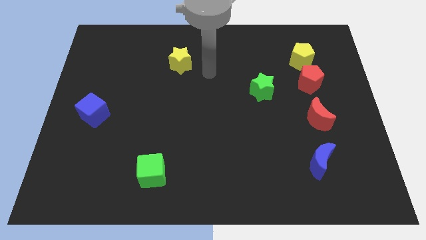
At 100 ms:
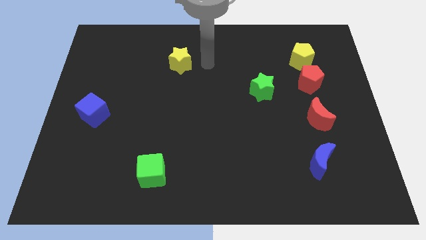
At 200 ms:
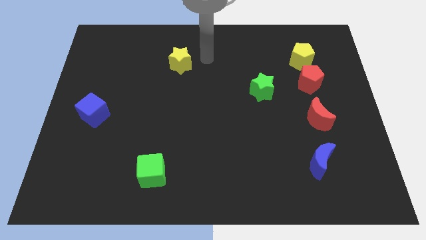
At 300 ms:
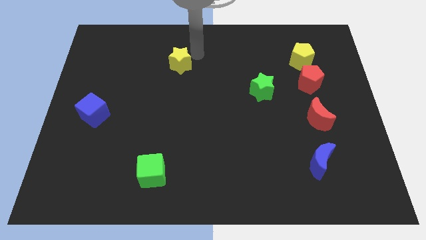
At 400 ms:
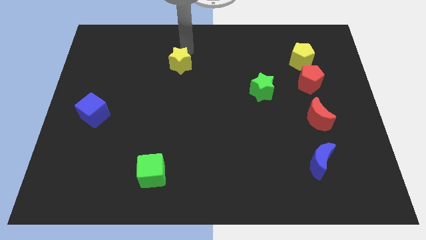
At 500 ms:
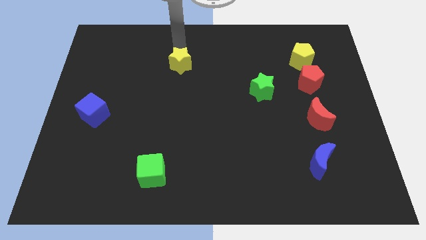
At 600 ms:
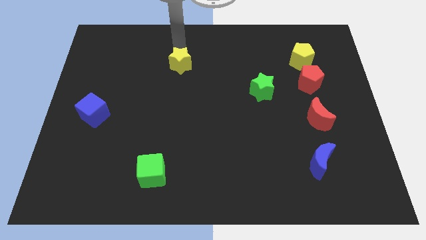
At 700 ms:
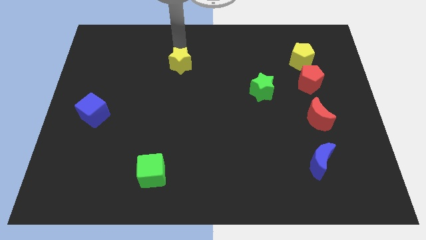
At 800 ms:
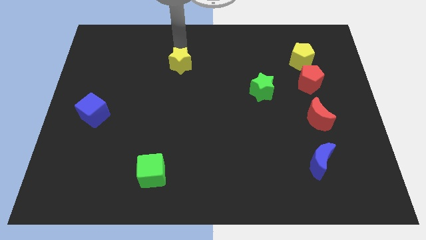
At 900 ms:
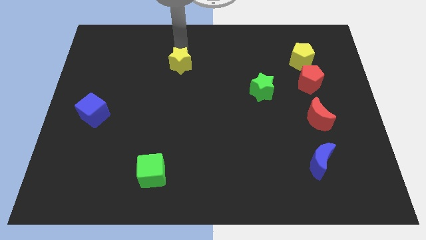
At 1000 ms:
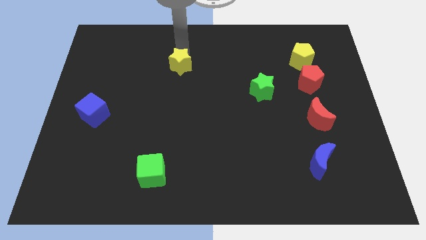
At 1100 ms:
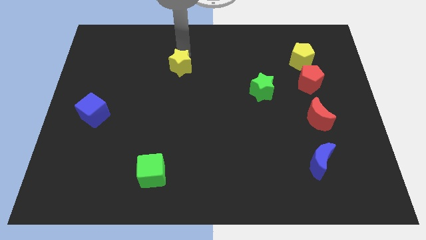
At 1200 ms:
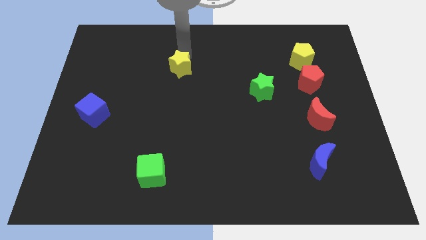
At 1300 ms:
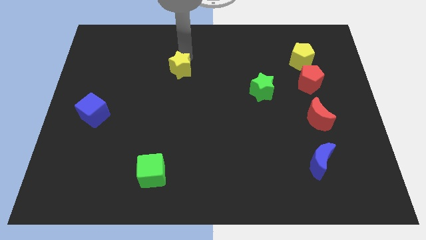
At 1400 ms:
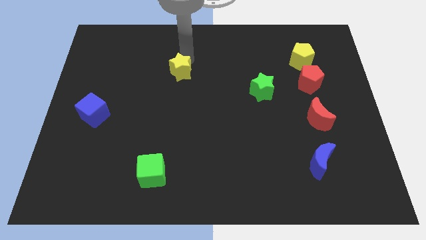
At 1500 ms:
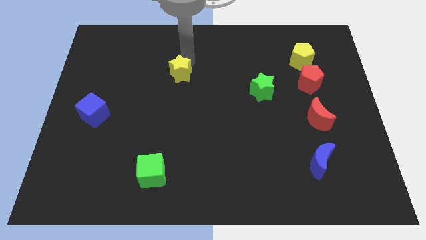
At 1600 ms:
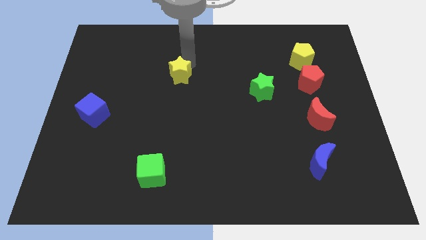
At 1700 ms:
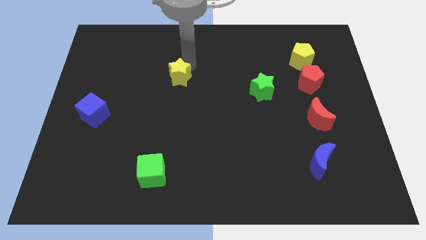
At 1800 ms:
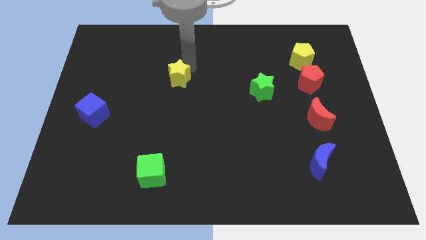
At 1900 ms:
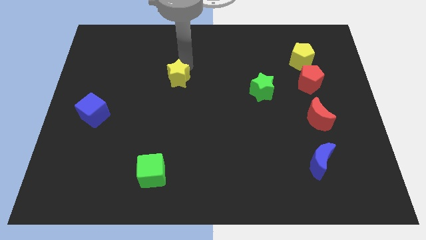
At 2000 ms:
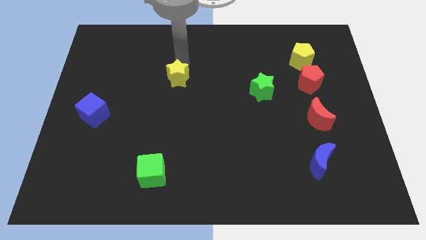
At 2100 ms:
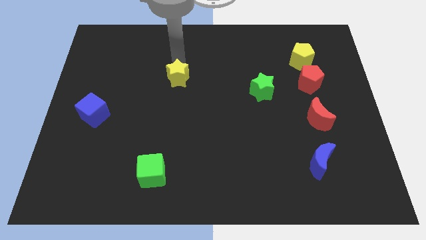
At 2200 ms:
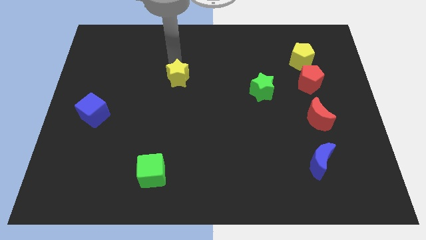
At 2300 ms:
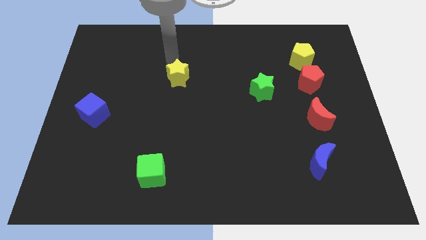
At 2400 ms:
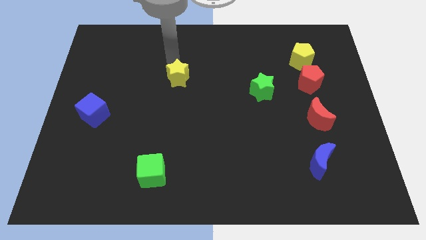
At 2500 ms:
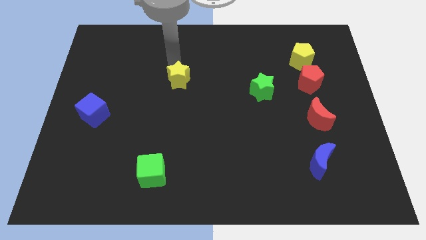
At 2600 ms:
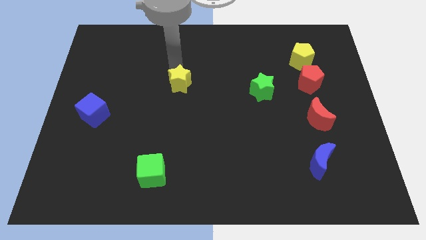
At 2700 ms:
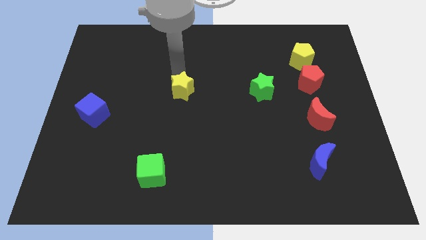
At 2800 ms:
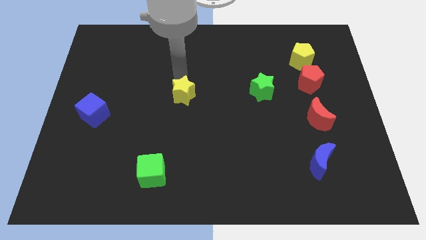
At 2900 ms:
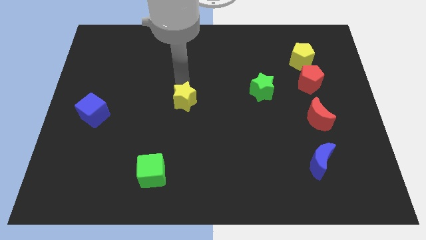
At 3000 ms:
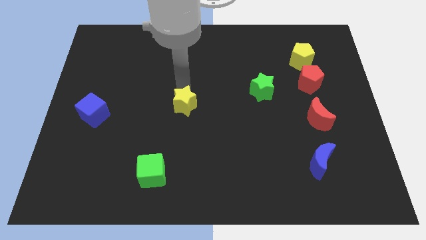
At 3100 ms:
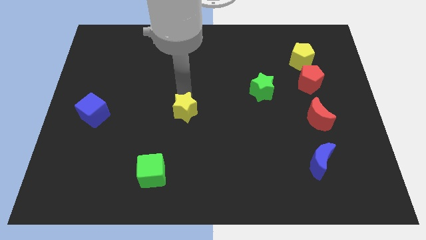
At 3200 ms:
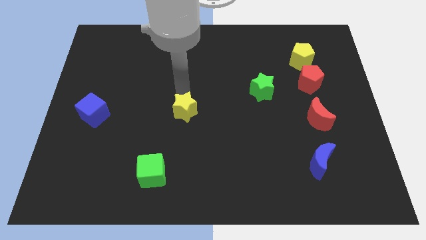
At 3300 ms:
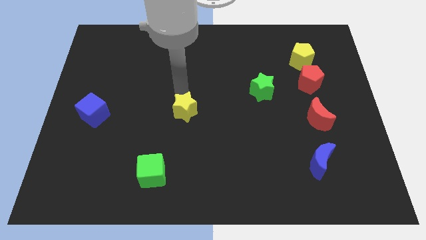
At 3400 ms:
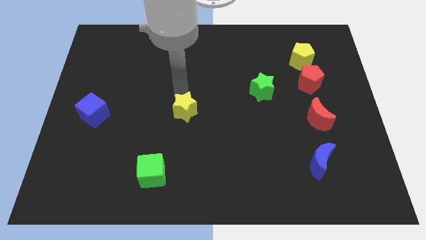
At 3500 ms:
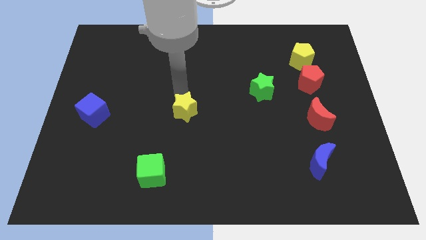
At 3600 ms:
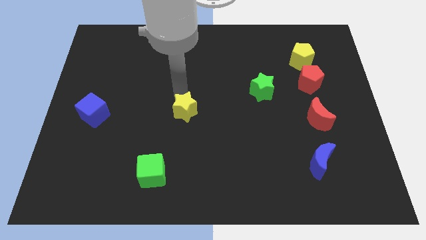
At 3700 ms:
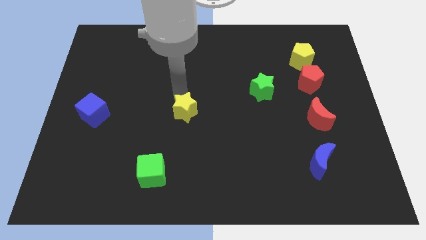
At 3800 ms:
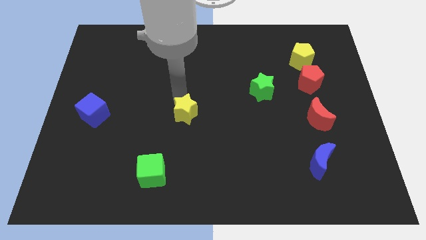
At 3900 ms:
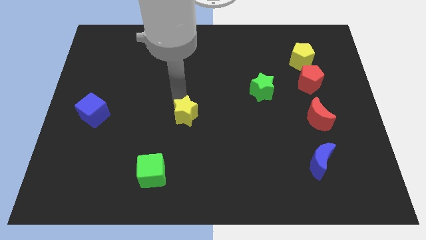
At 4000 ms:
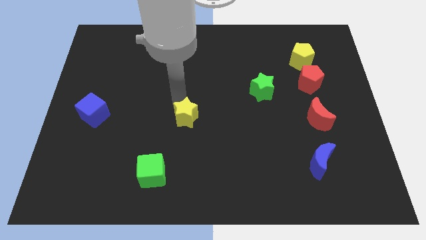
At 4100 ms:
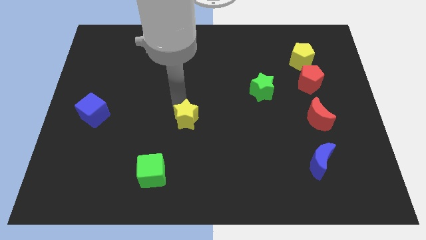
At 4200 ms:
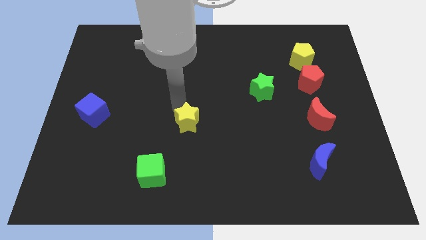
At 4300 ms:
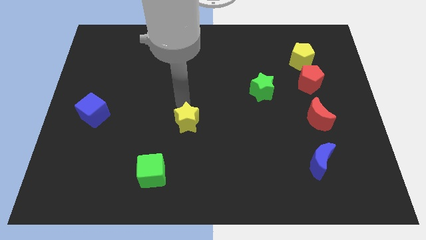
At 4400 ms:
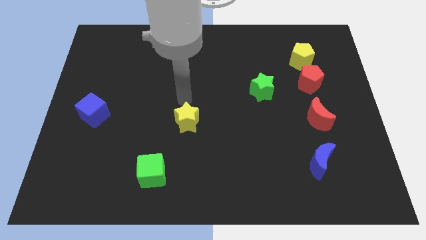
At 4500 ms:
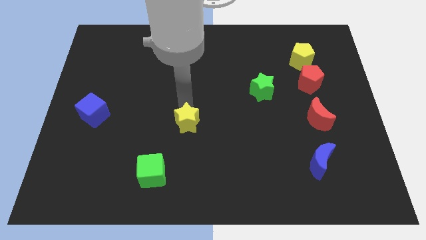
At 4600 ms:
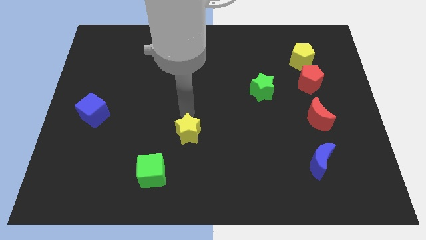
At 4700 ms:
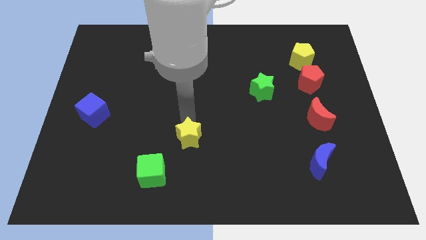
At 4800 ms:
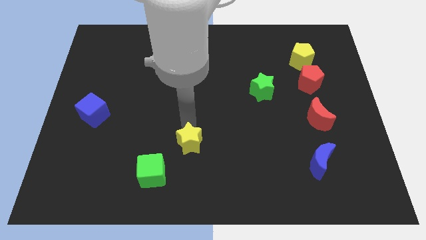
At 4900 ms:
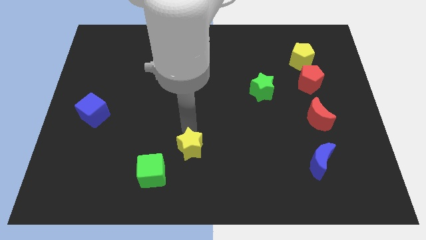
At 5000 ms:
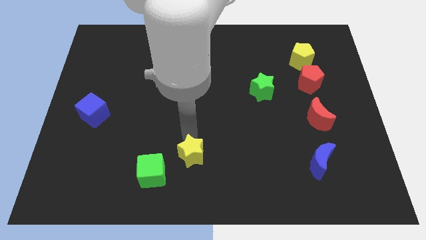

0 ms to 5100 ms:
push the yellow star right of the green cube

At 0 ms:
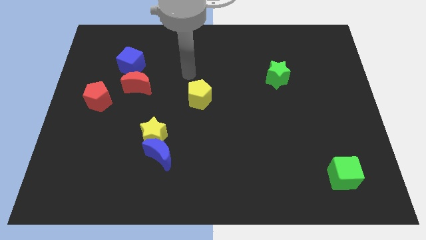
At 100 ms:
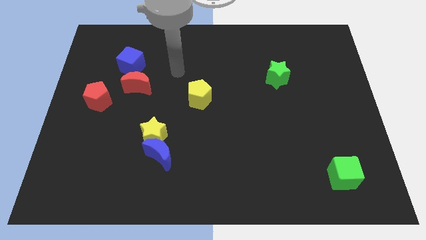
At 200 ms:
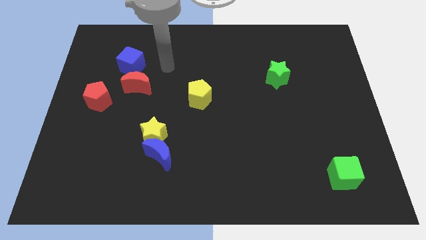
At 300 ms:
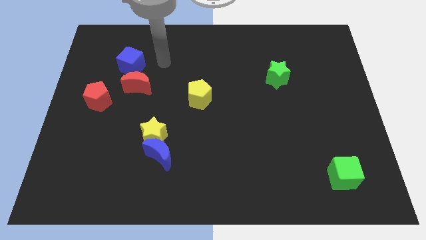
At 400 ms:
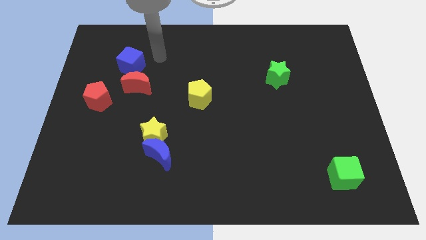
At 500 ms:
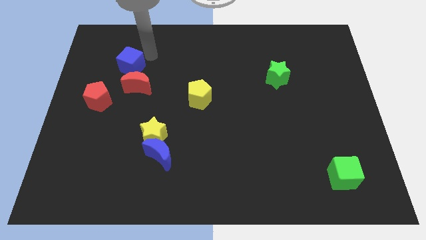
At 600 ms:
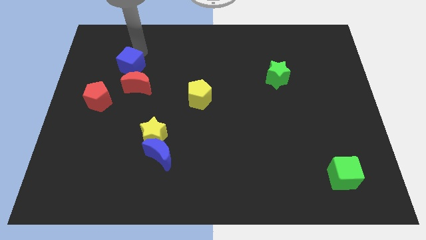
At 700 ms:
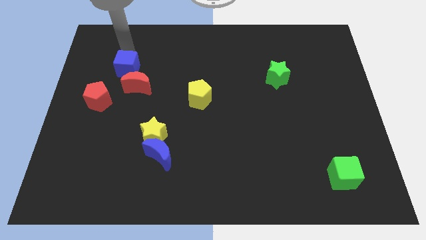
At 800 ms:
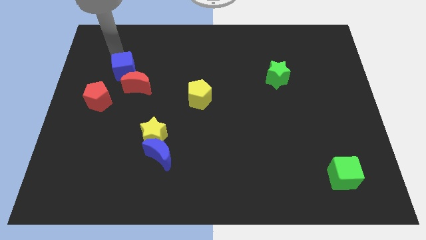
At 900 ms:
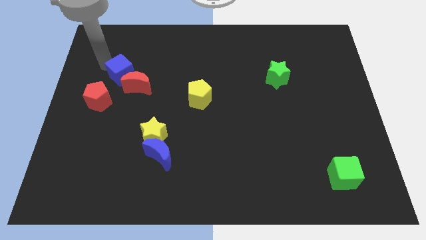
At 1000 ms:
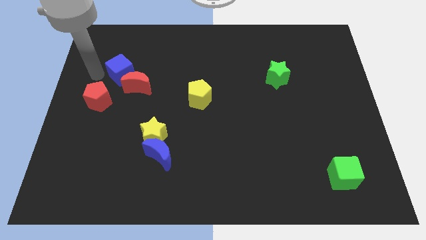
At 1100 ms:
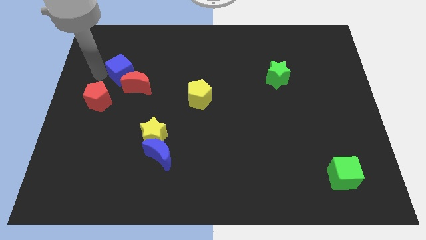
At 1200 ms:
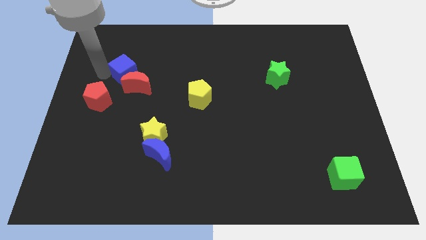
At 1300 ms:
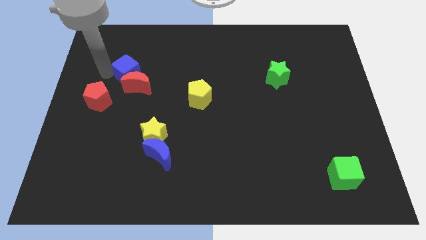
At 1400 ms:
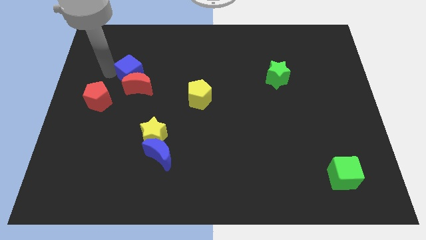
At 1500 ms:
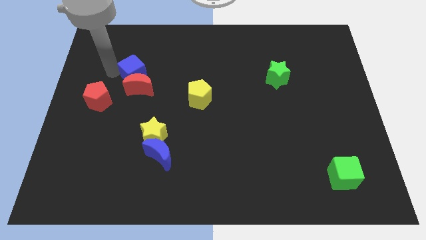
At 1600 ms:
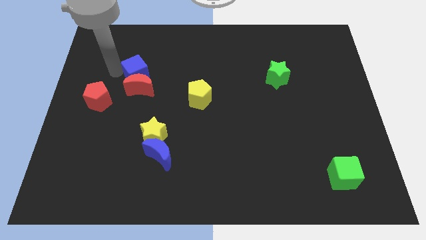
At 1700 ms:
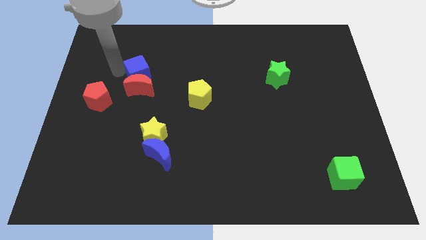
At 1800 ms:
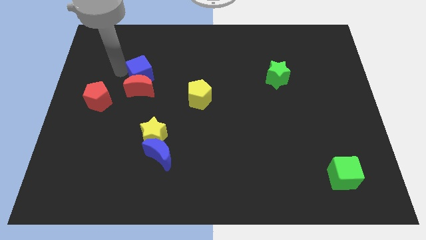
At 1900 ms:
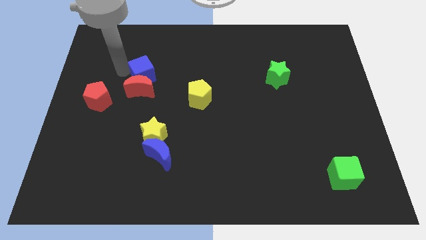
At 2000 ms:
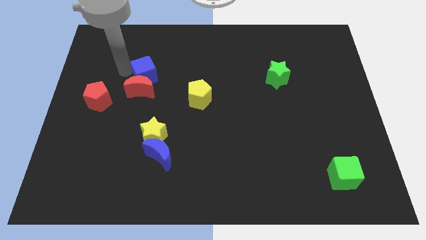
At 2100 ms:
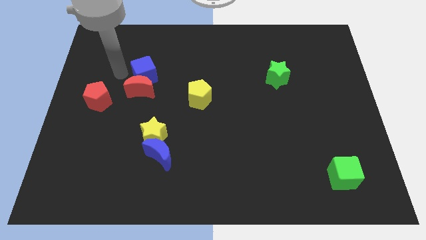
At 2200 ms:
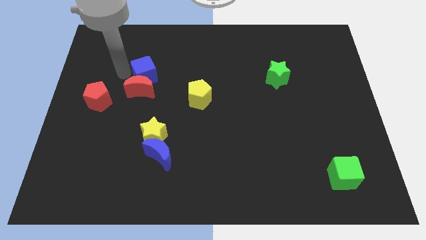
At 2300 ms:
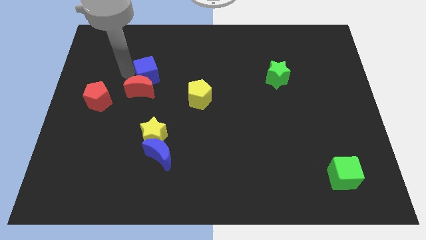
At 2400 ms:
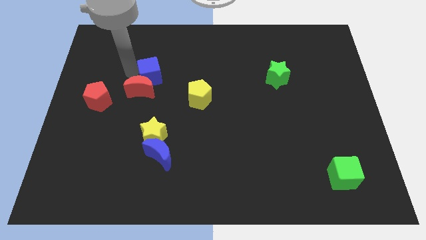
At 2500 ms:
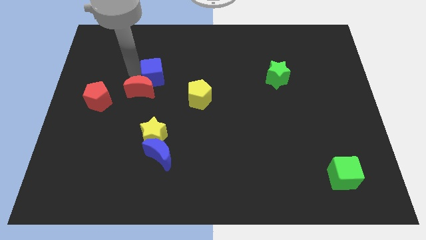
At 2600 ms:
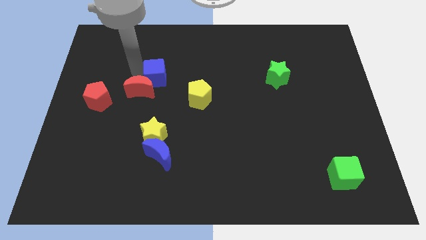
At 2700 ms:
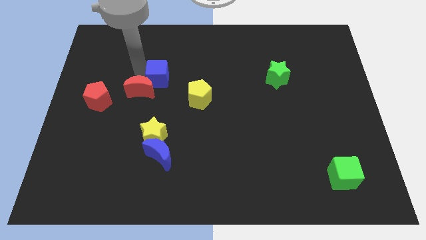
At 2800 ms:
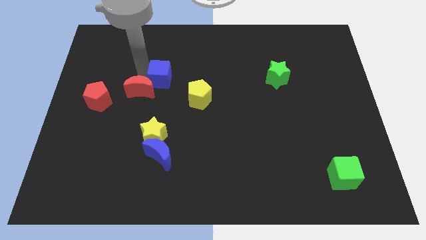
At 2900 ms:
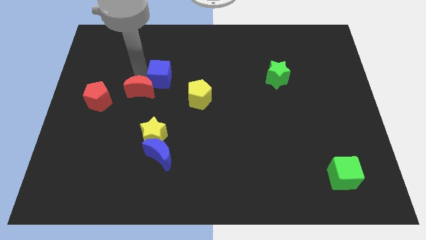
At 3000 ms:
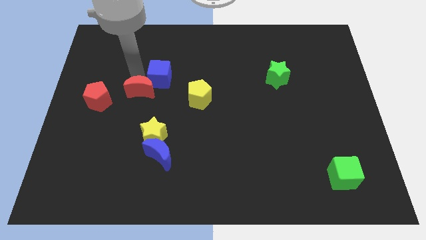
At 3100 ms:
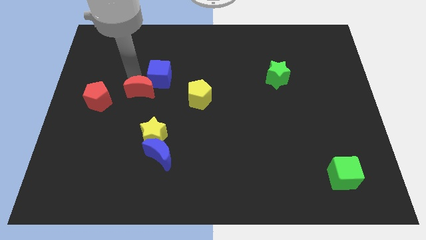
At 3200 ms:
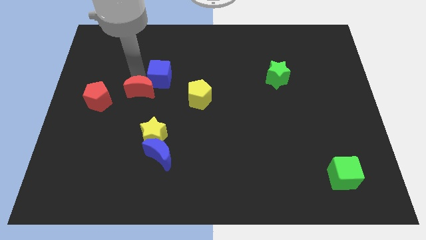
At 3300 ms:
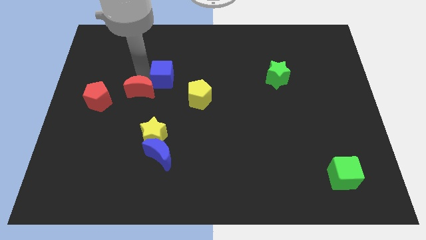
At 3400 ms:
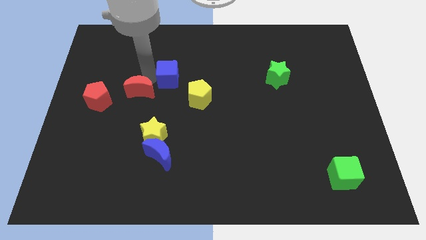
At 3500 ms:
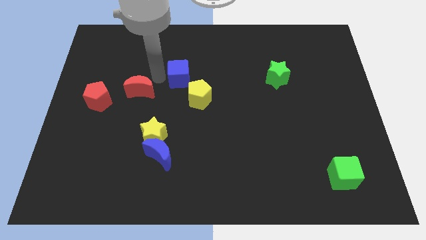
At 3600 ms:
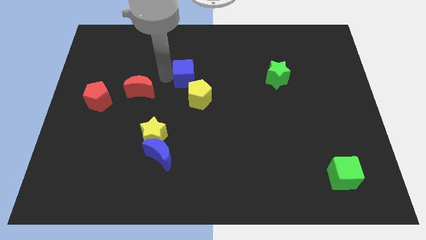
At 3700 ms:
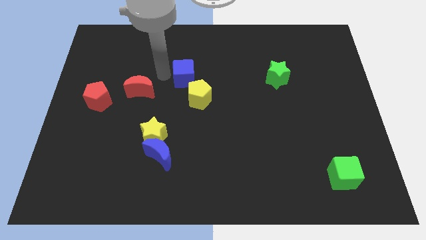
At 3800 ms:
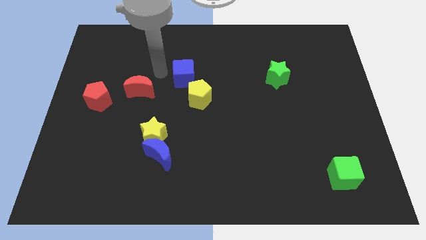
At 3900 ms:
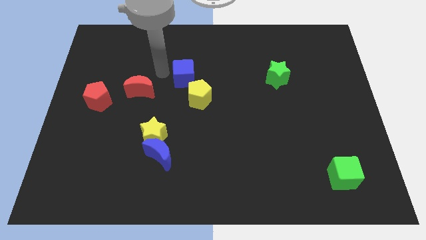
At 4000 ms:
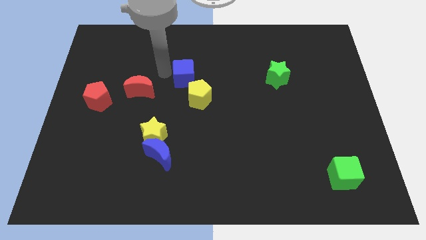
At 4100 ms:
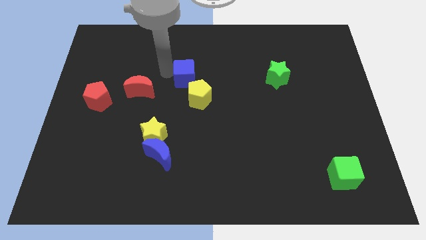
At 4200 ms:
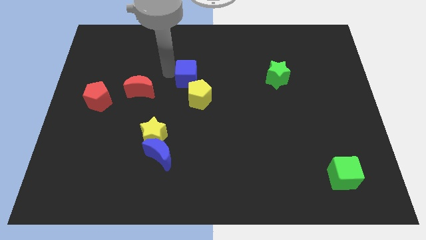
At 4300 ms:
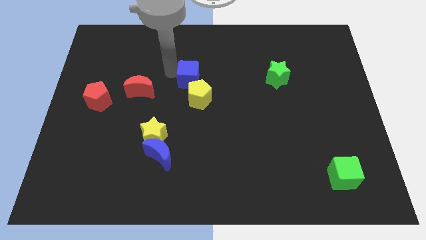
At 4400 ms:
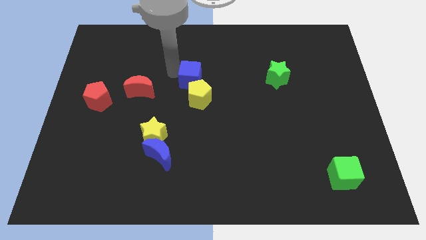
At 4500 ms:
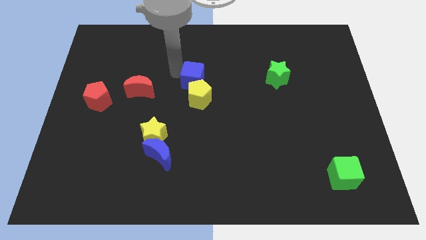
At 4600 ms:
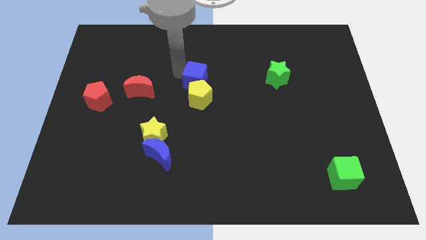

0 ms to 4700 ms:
slide the blue cube to the top right side of the yellow pentagon
